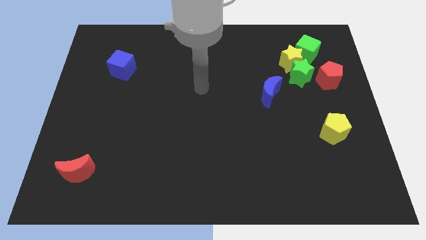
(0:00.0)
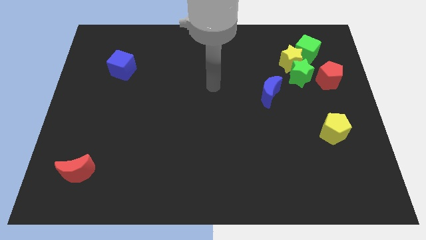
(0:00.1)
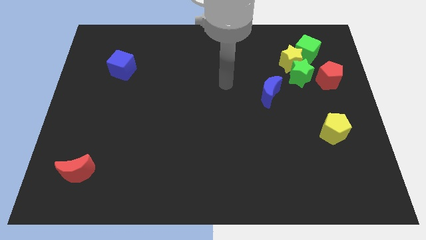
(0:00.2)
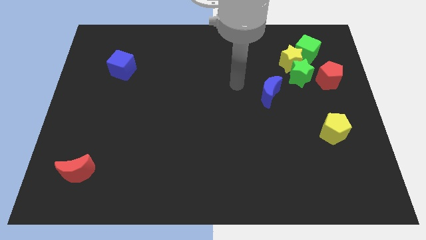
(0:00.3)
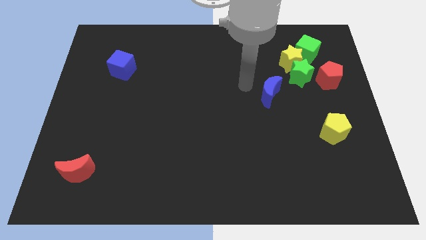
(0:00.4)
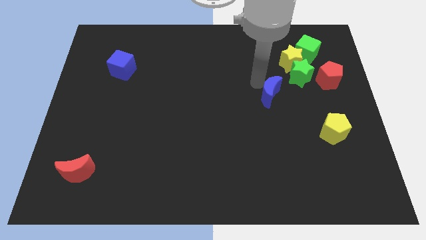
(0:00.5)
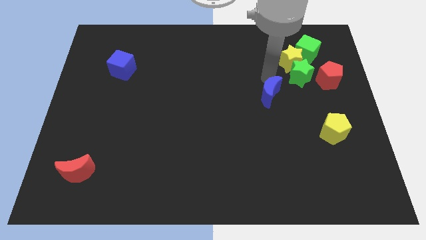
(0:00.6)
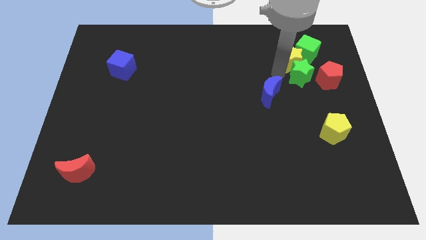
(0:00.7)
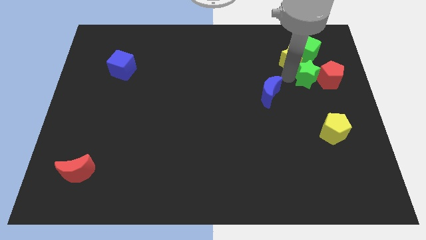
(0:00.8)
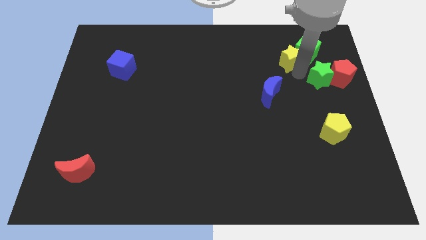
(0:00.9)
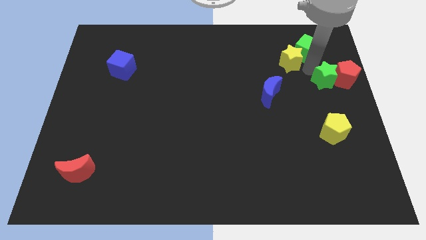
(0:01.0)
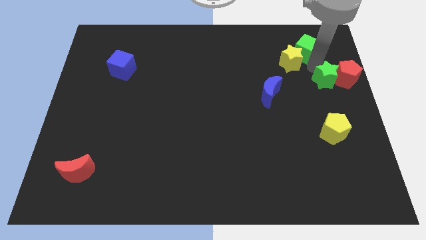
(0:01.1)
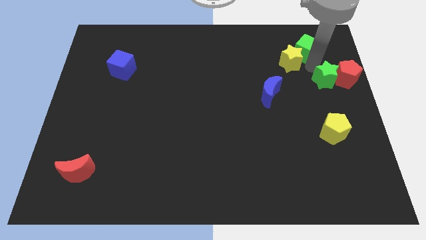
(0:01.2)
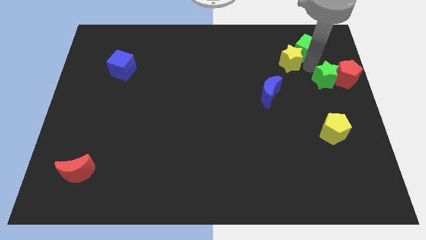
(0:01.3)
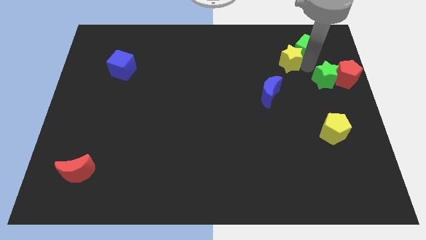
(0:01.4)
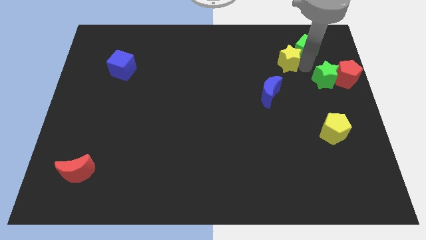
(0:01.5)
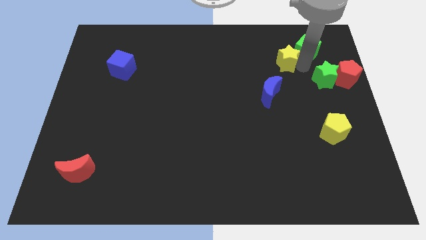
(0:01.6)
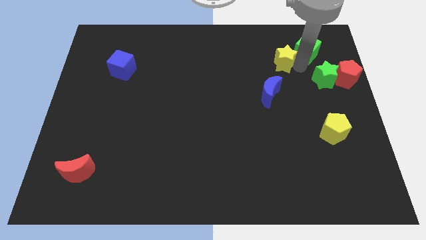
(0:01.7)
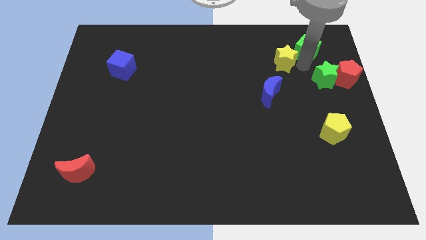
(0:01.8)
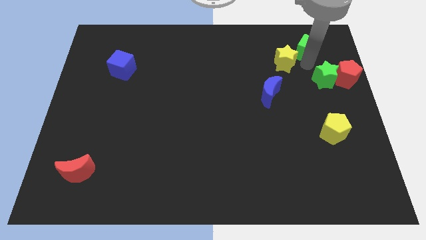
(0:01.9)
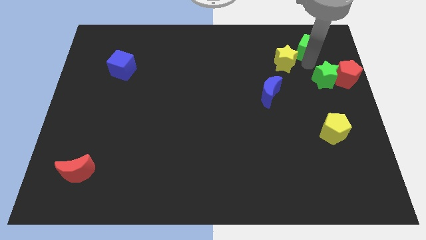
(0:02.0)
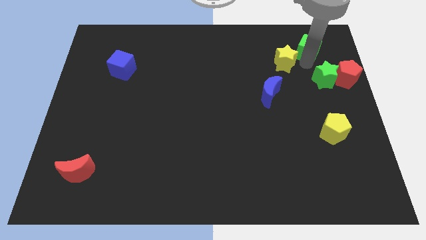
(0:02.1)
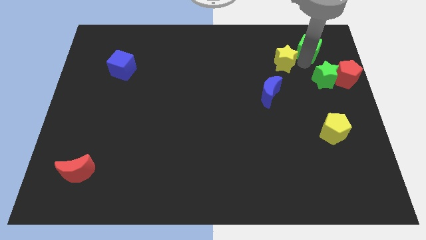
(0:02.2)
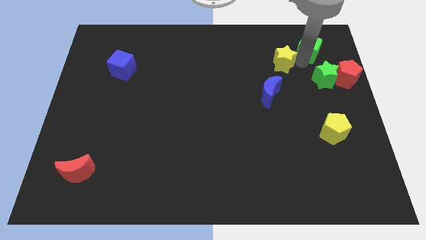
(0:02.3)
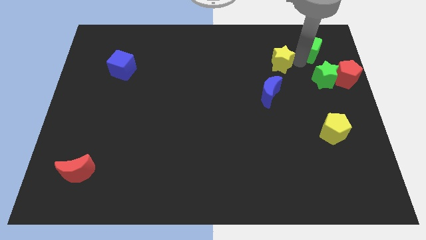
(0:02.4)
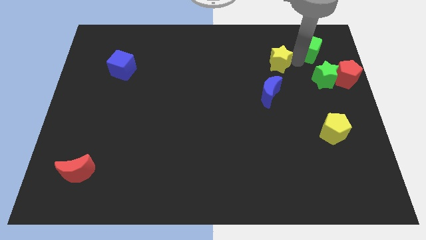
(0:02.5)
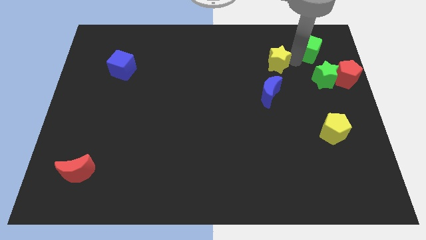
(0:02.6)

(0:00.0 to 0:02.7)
separate the yellow star from the green star and green cube

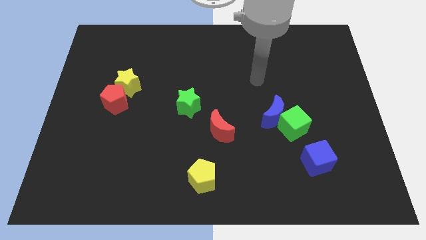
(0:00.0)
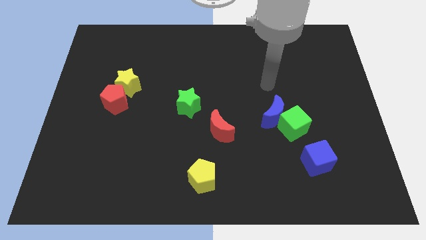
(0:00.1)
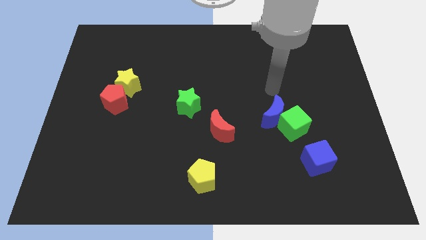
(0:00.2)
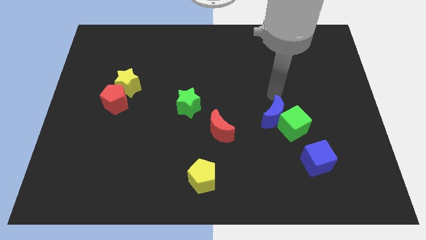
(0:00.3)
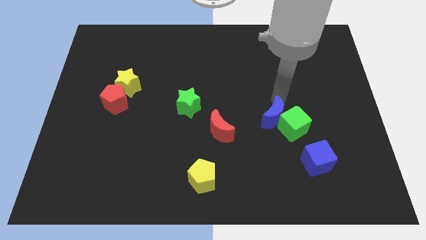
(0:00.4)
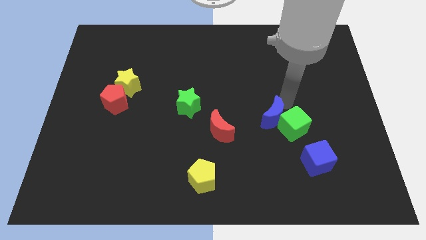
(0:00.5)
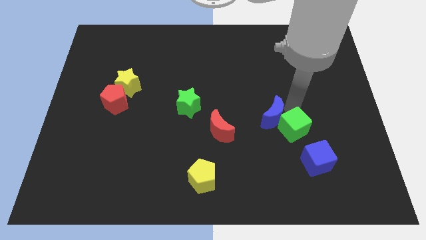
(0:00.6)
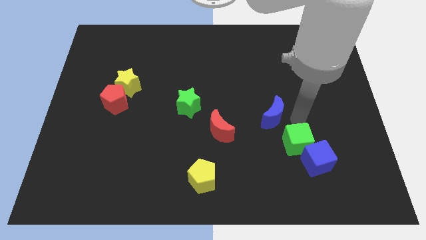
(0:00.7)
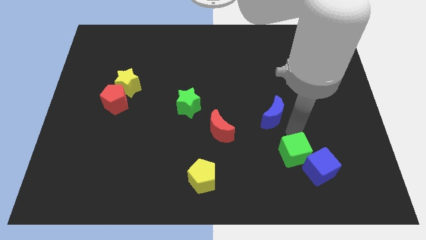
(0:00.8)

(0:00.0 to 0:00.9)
move the blue moon away from the green cube

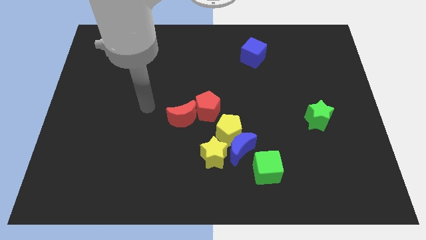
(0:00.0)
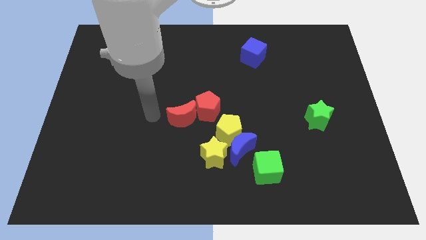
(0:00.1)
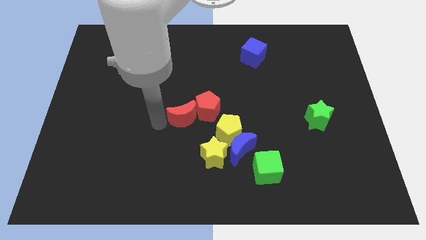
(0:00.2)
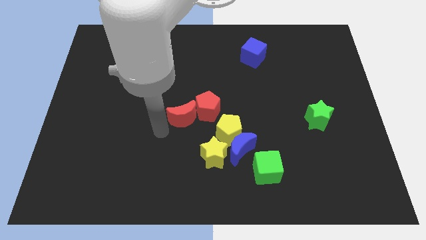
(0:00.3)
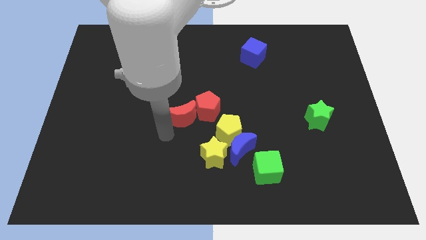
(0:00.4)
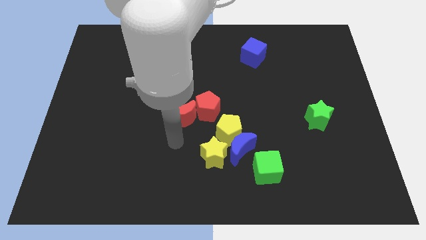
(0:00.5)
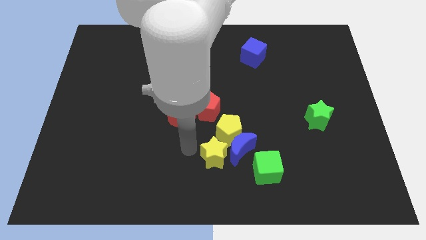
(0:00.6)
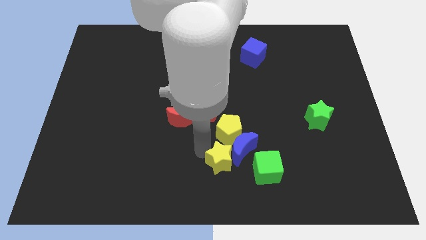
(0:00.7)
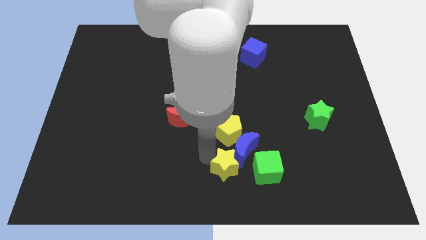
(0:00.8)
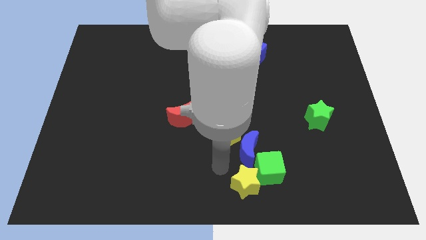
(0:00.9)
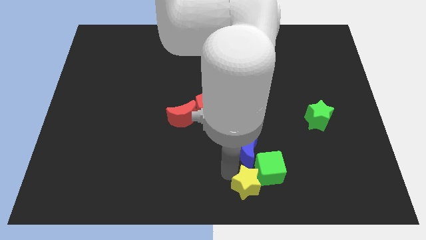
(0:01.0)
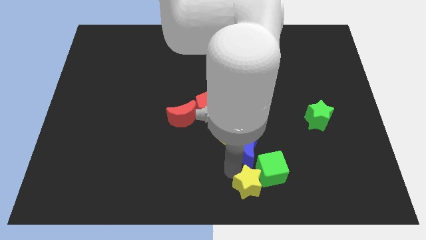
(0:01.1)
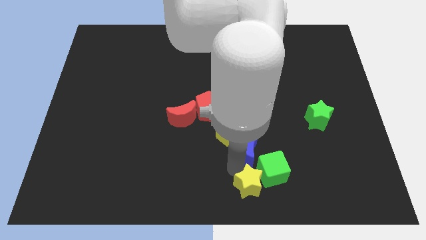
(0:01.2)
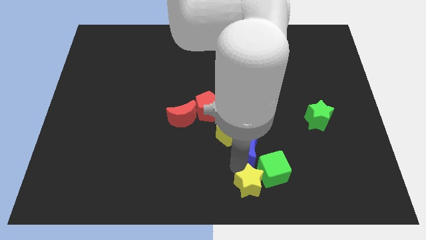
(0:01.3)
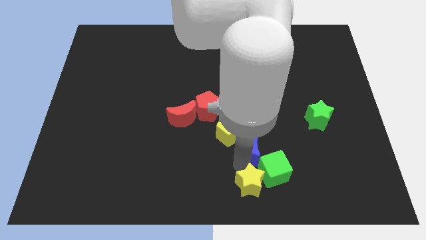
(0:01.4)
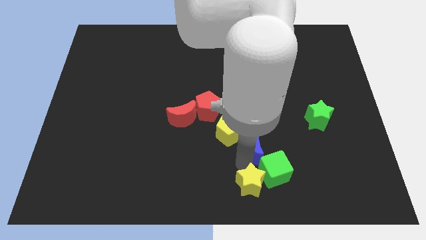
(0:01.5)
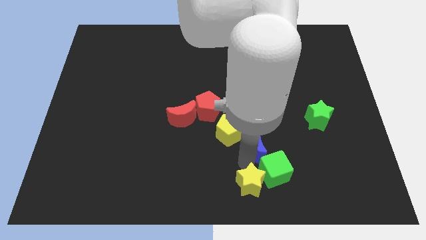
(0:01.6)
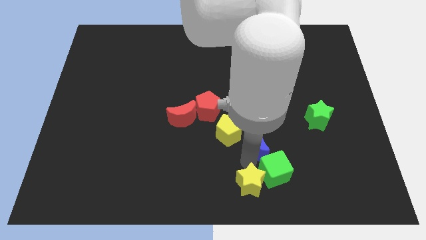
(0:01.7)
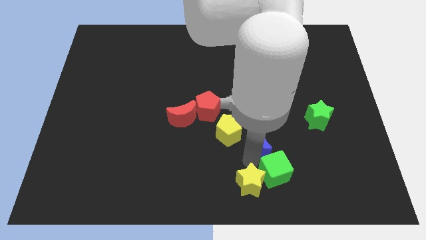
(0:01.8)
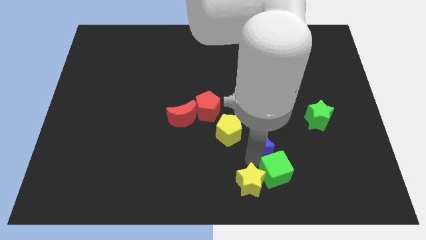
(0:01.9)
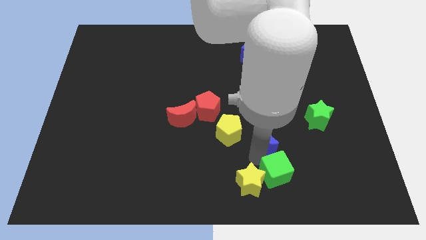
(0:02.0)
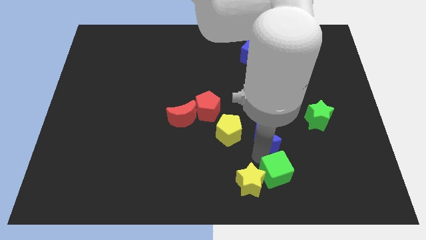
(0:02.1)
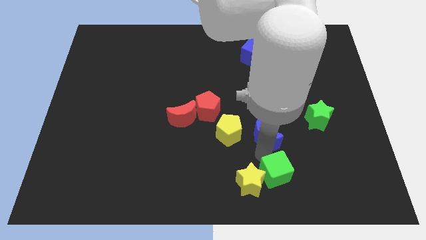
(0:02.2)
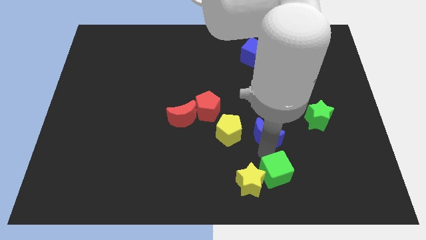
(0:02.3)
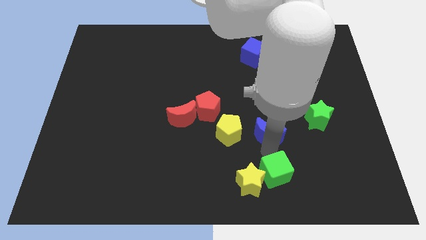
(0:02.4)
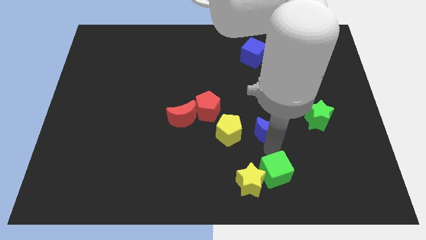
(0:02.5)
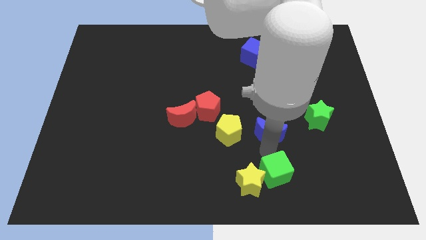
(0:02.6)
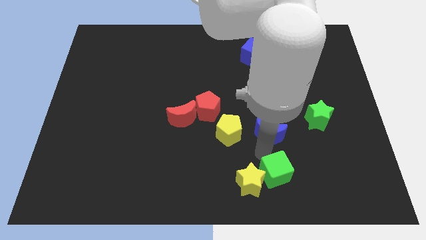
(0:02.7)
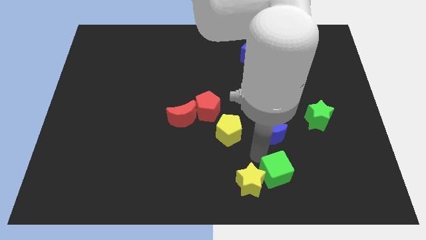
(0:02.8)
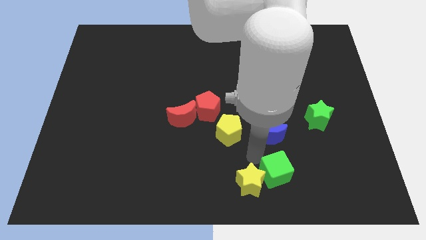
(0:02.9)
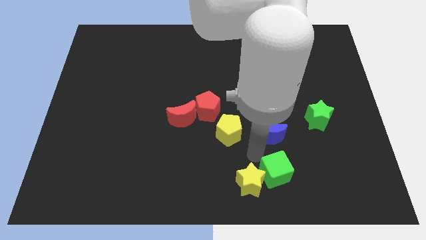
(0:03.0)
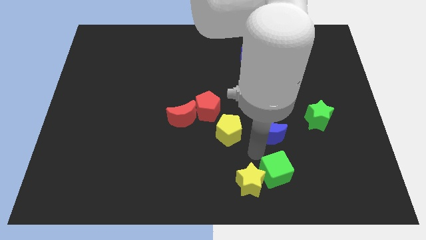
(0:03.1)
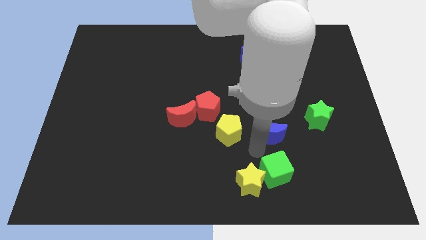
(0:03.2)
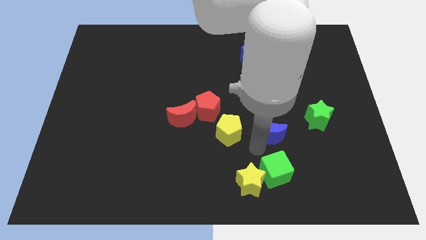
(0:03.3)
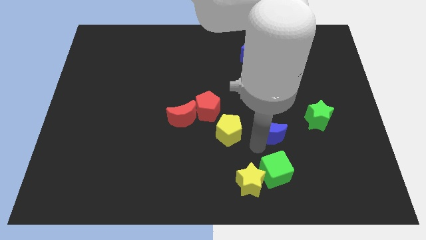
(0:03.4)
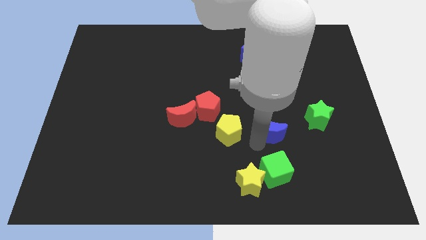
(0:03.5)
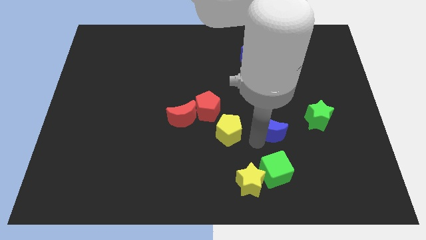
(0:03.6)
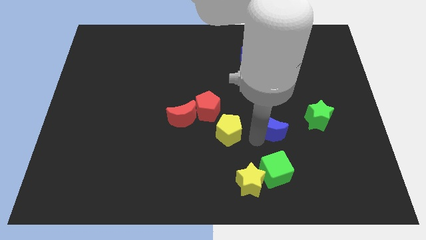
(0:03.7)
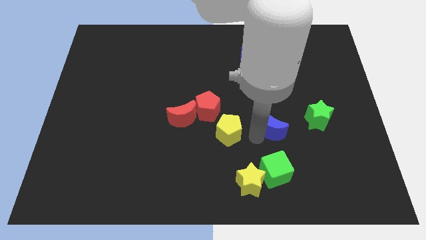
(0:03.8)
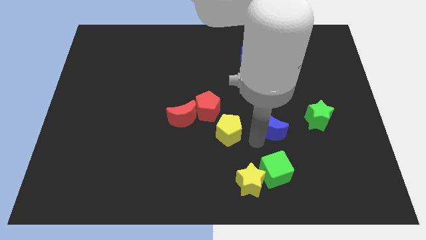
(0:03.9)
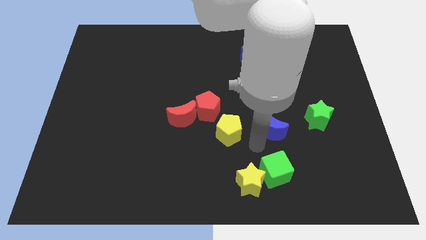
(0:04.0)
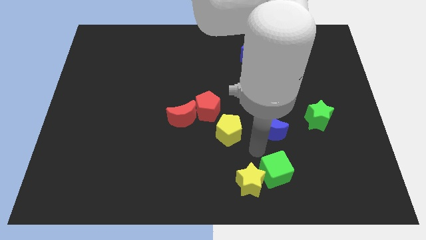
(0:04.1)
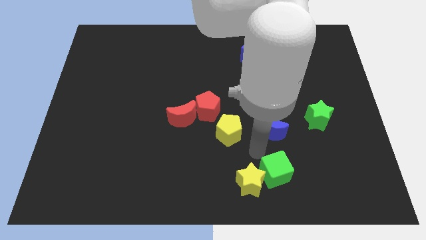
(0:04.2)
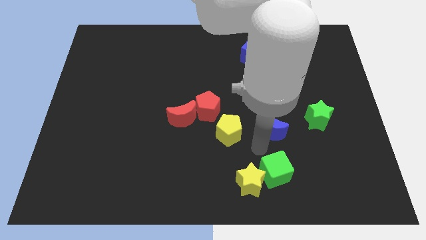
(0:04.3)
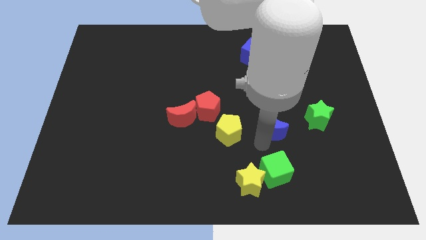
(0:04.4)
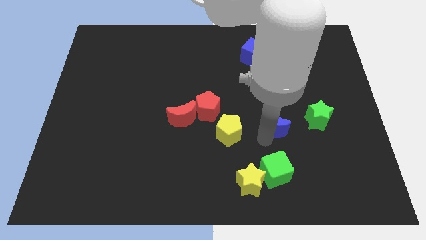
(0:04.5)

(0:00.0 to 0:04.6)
separate the blue moon from the yellow pentagon, yellow star, and green cube

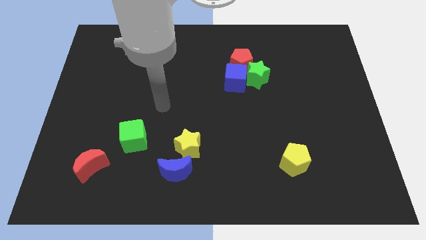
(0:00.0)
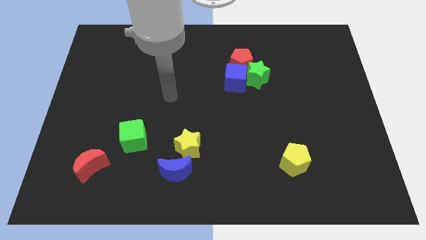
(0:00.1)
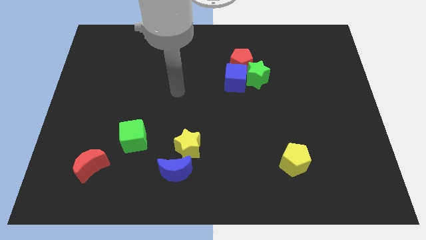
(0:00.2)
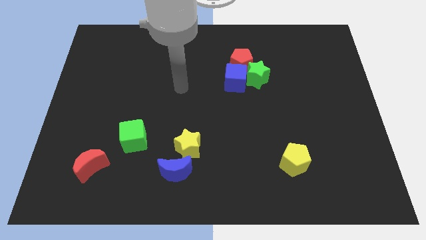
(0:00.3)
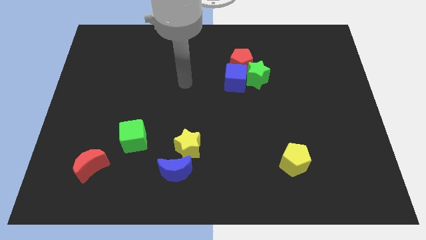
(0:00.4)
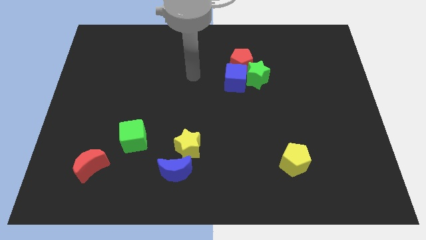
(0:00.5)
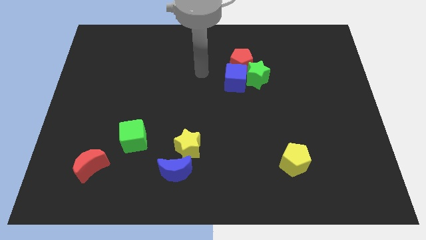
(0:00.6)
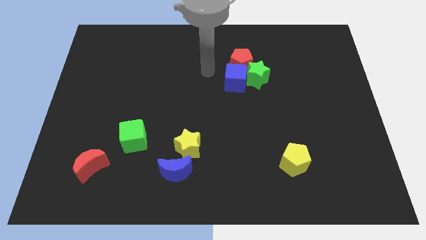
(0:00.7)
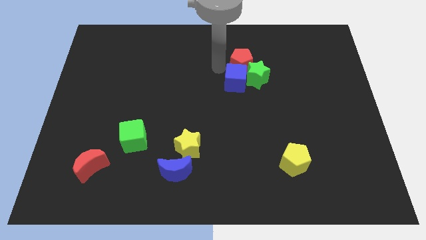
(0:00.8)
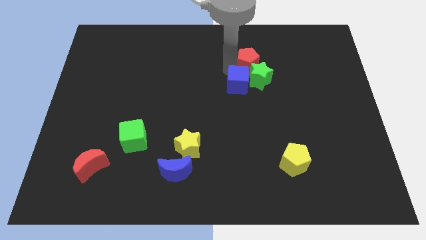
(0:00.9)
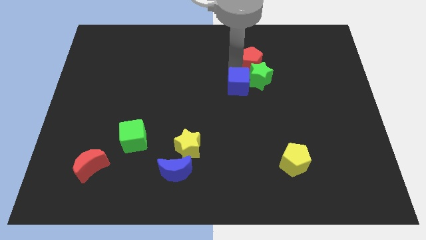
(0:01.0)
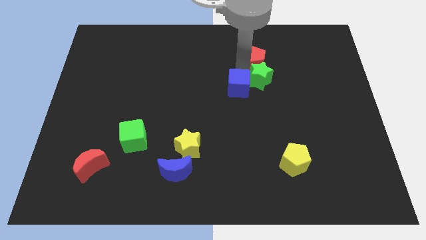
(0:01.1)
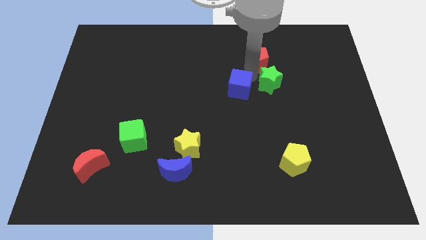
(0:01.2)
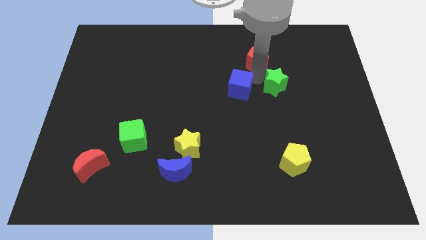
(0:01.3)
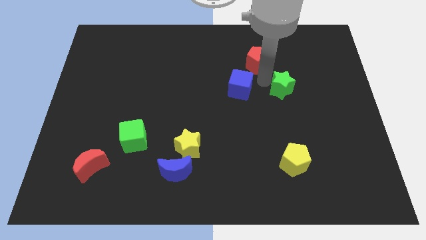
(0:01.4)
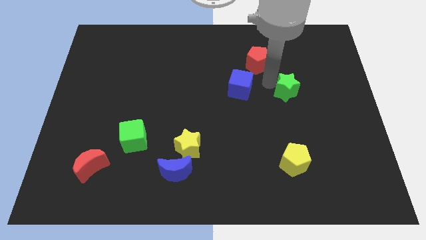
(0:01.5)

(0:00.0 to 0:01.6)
pull the green star apart from the blue cube and red pentagon
